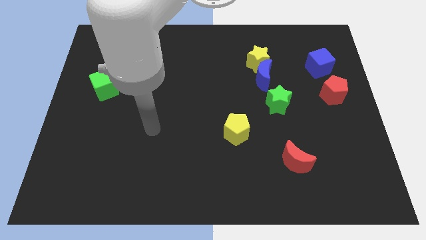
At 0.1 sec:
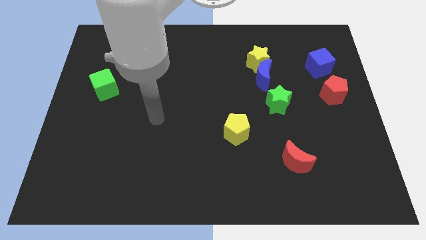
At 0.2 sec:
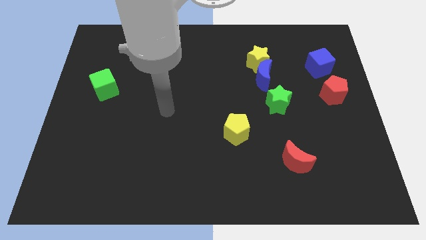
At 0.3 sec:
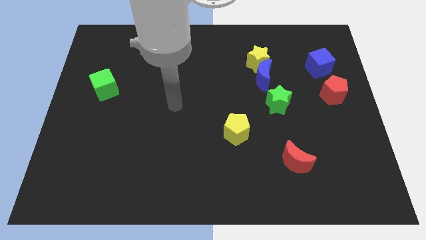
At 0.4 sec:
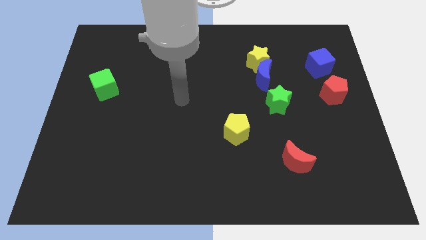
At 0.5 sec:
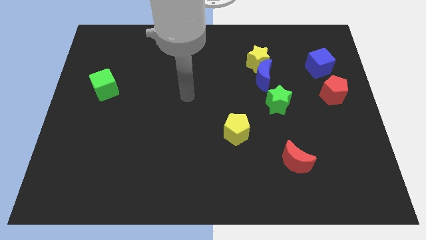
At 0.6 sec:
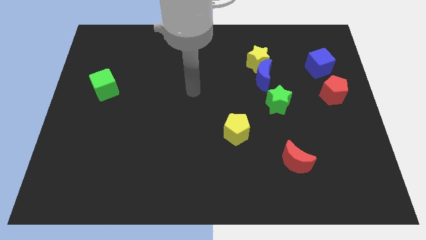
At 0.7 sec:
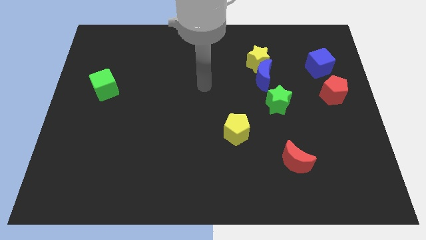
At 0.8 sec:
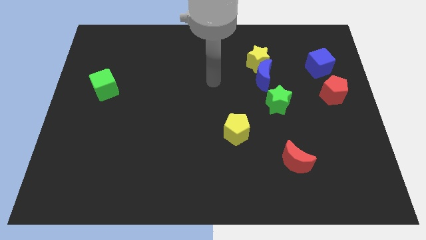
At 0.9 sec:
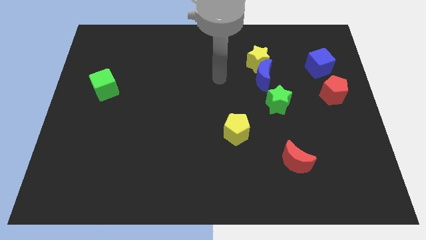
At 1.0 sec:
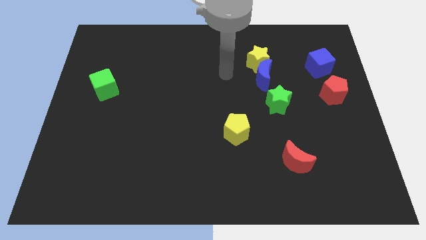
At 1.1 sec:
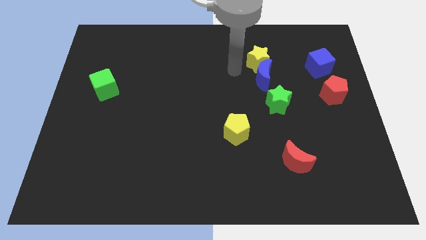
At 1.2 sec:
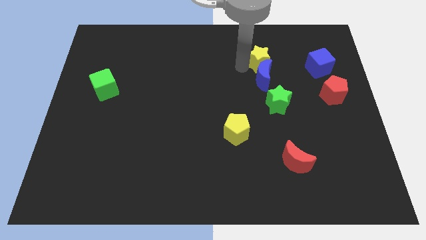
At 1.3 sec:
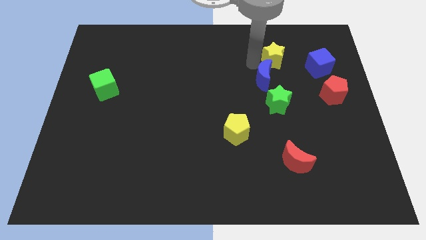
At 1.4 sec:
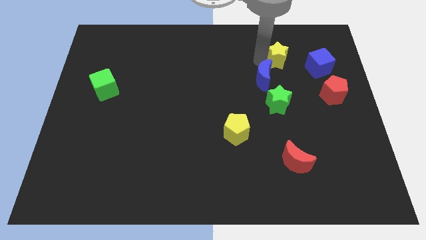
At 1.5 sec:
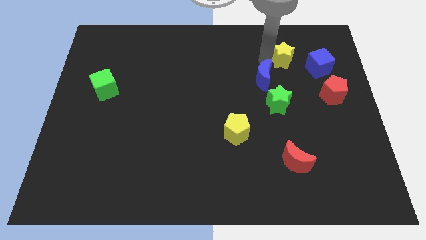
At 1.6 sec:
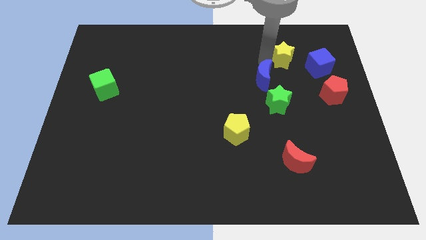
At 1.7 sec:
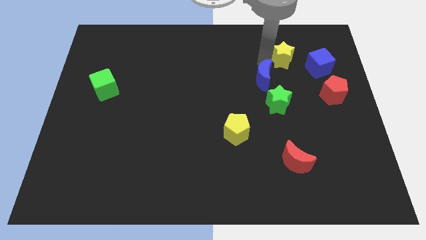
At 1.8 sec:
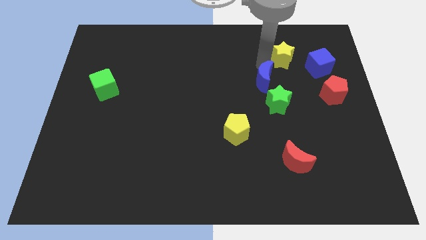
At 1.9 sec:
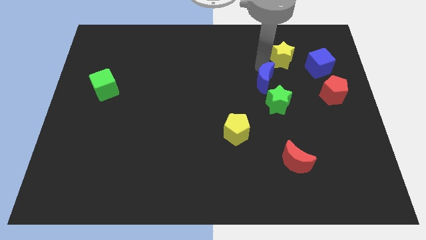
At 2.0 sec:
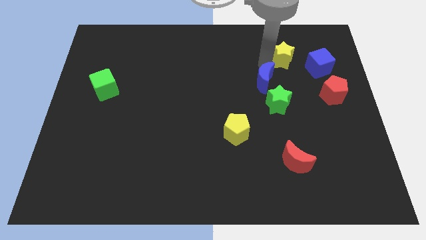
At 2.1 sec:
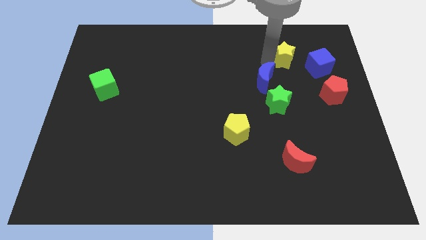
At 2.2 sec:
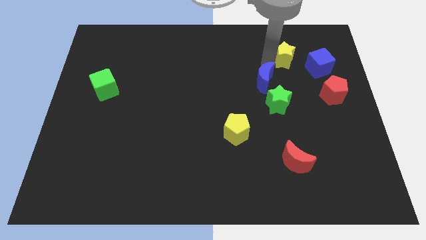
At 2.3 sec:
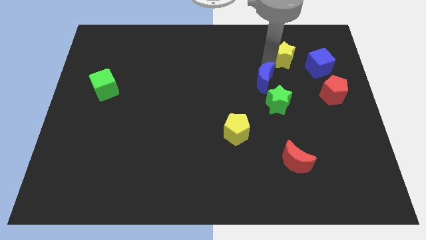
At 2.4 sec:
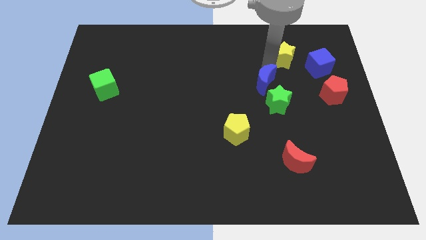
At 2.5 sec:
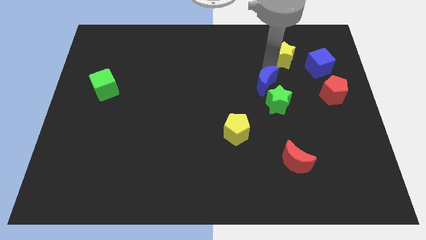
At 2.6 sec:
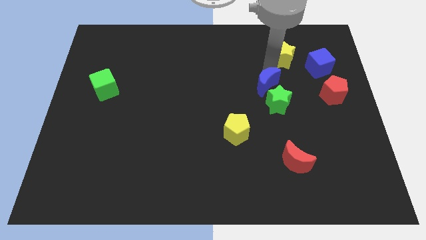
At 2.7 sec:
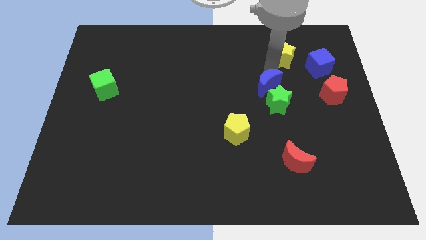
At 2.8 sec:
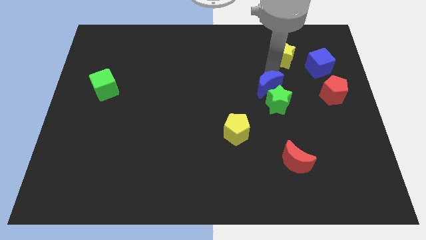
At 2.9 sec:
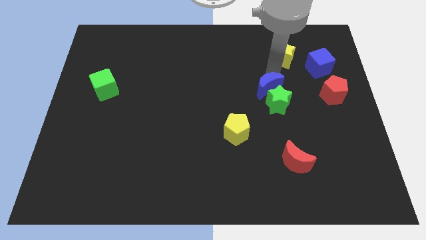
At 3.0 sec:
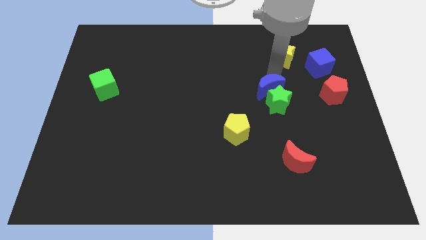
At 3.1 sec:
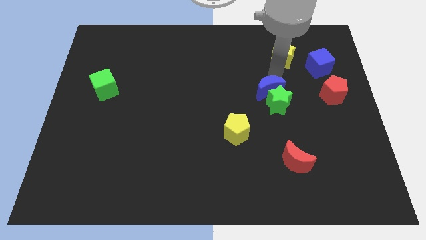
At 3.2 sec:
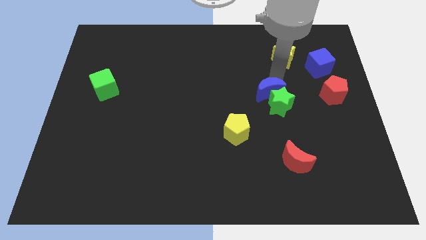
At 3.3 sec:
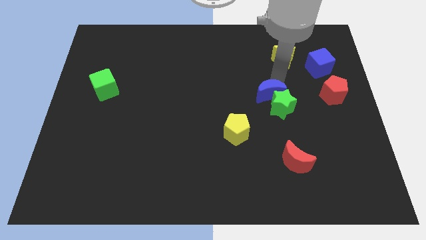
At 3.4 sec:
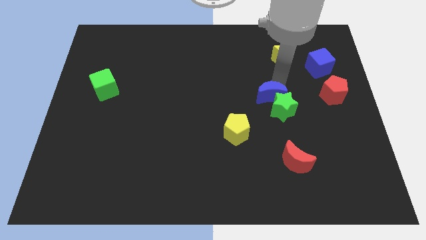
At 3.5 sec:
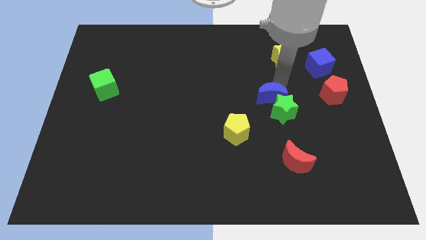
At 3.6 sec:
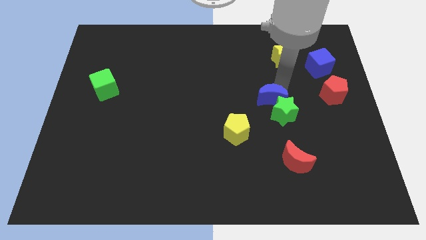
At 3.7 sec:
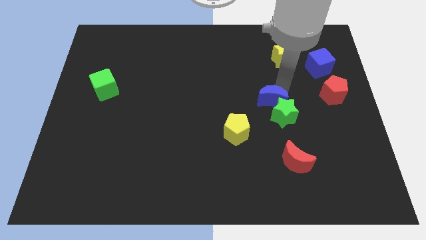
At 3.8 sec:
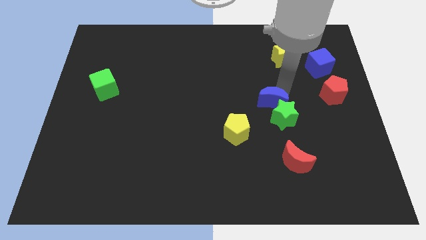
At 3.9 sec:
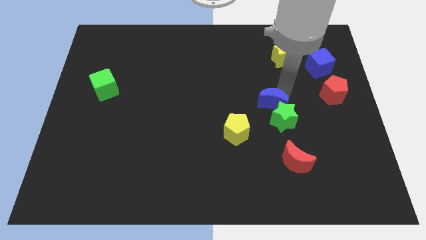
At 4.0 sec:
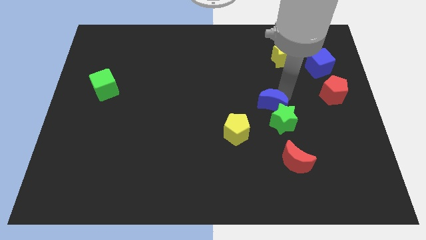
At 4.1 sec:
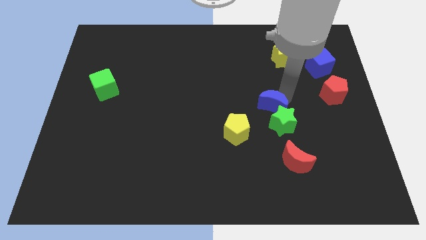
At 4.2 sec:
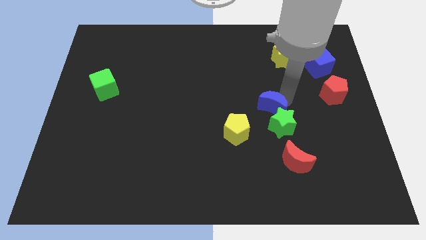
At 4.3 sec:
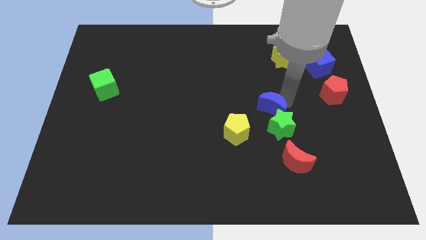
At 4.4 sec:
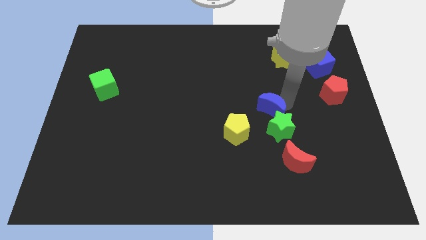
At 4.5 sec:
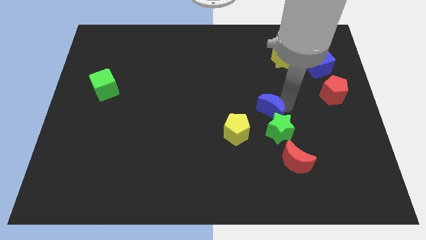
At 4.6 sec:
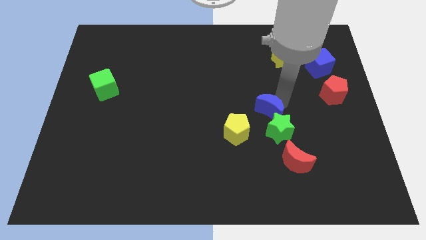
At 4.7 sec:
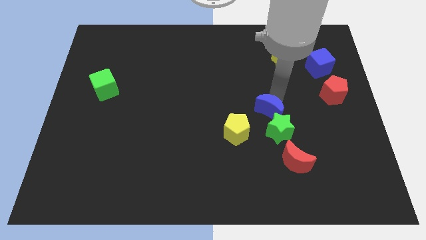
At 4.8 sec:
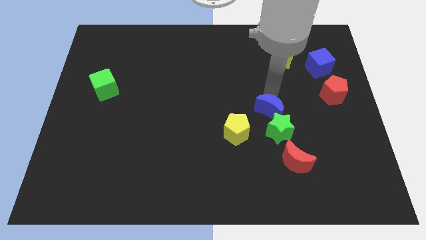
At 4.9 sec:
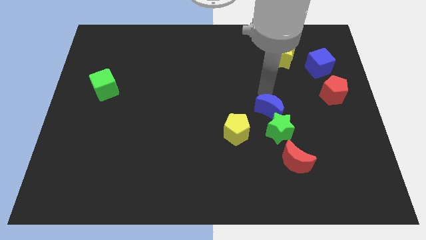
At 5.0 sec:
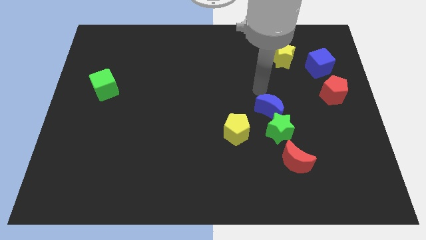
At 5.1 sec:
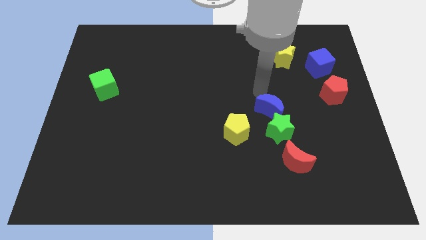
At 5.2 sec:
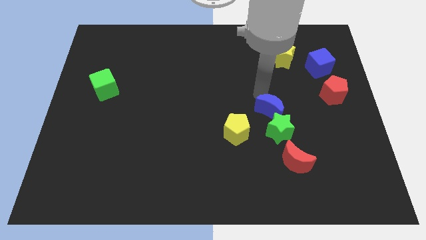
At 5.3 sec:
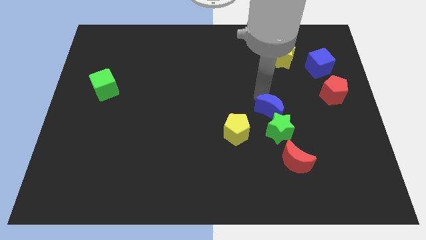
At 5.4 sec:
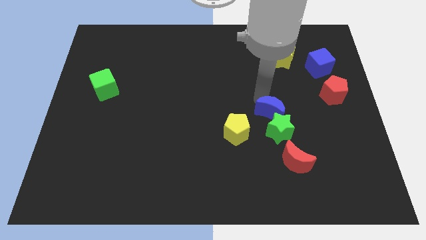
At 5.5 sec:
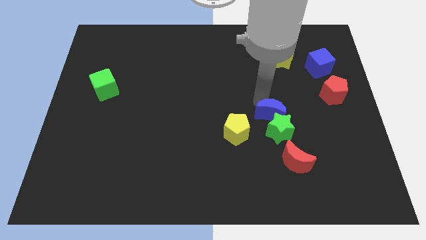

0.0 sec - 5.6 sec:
slide the blue moon just right of the yellow pentagon
